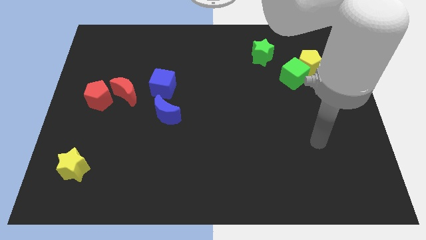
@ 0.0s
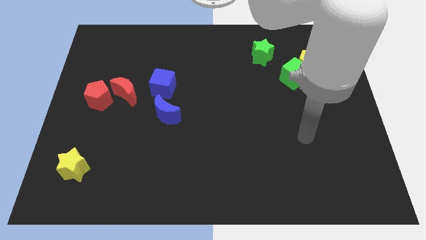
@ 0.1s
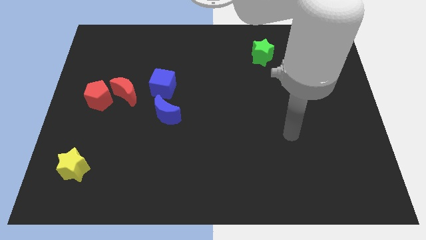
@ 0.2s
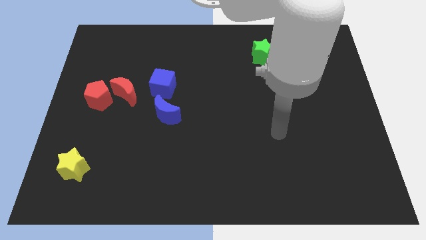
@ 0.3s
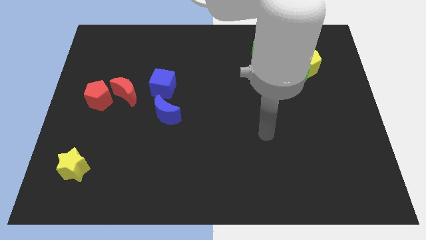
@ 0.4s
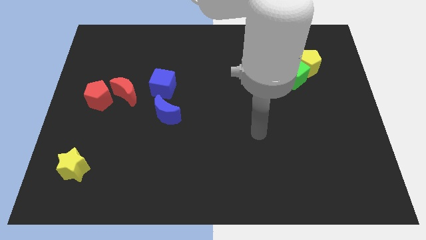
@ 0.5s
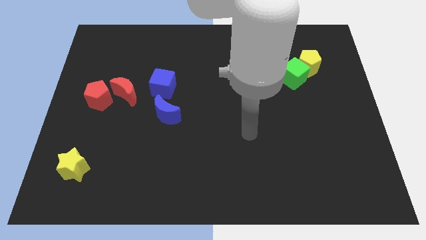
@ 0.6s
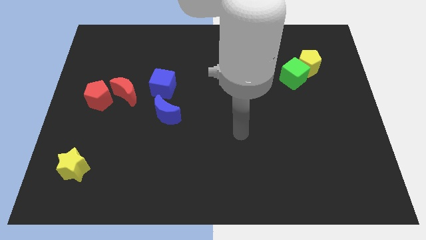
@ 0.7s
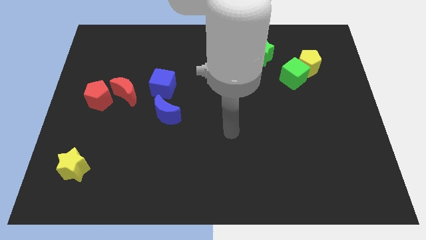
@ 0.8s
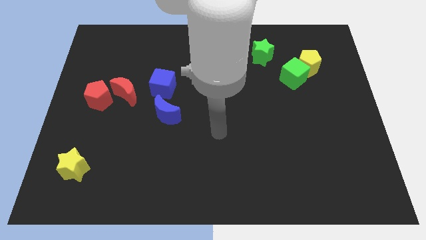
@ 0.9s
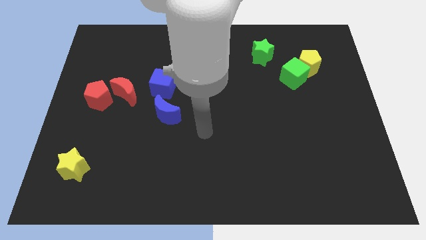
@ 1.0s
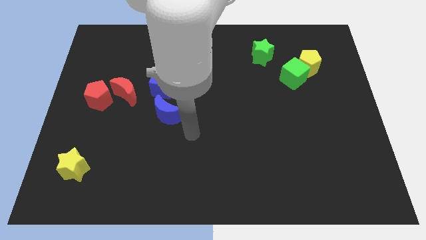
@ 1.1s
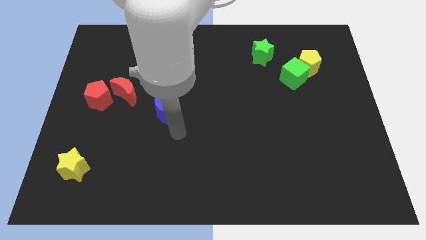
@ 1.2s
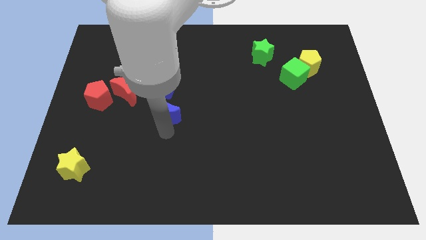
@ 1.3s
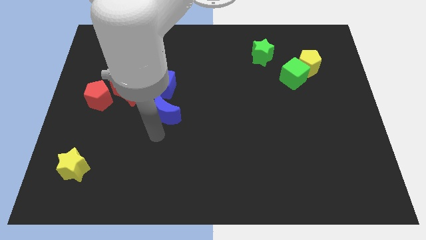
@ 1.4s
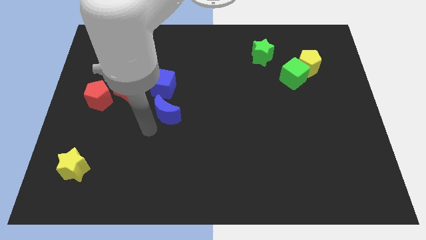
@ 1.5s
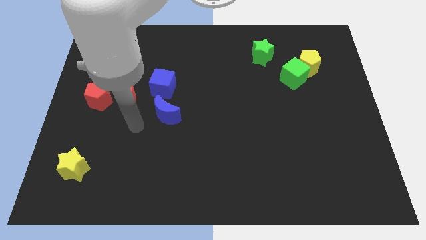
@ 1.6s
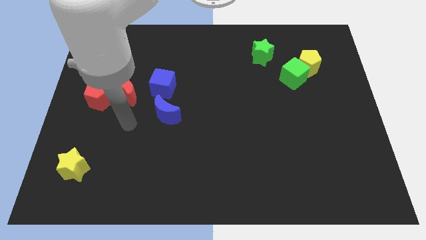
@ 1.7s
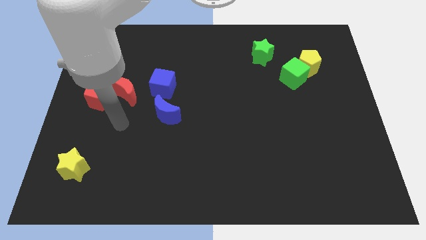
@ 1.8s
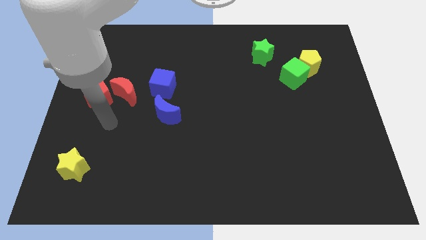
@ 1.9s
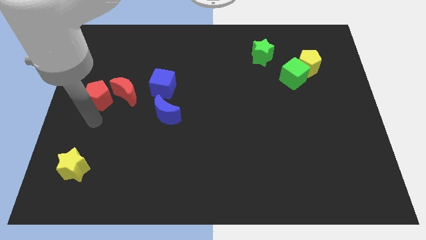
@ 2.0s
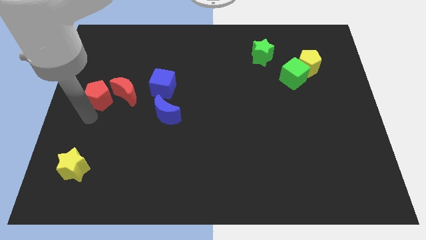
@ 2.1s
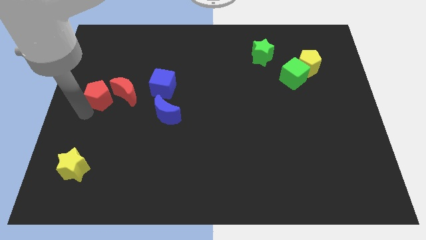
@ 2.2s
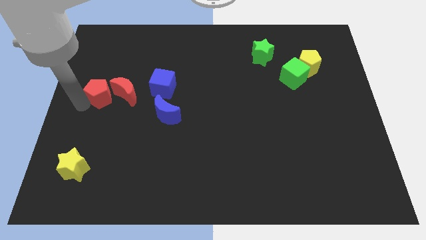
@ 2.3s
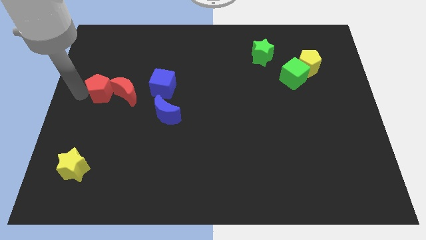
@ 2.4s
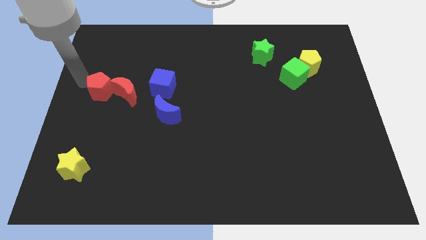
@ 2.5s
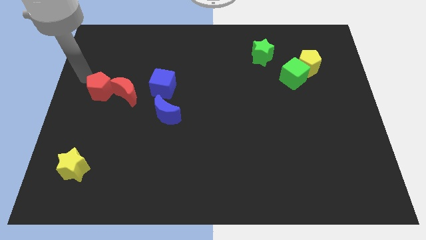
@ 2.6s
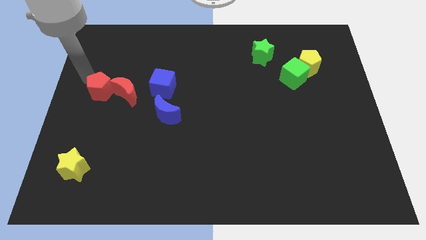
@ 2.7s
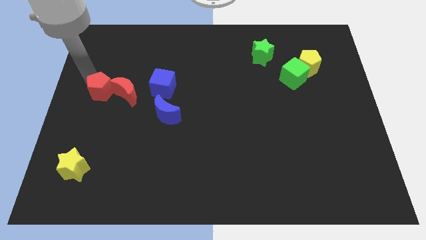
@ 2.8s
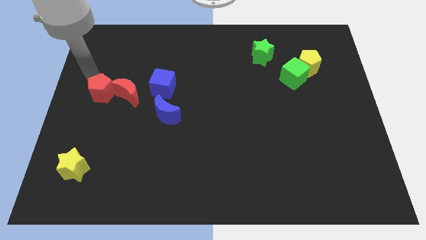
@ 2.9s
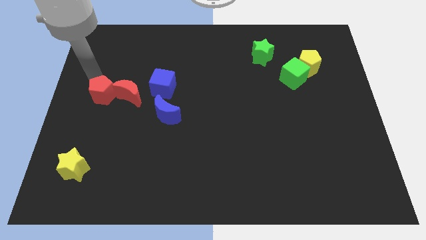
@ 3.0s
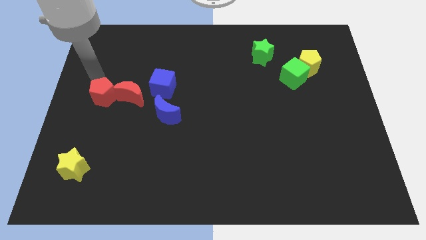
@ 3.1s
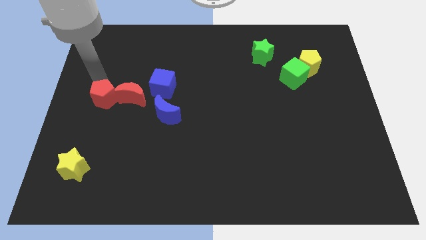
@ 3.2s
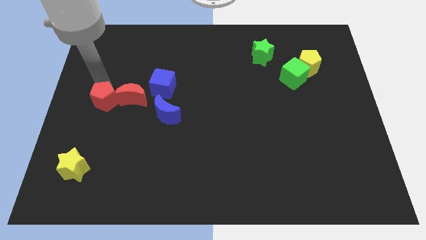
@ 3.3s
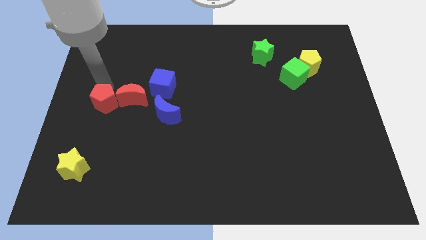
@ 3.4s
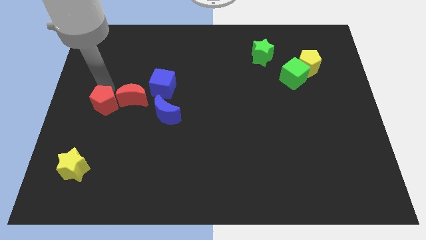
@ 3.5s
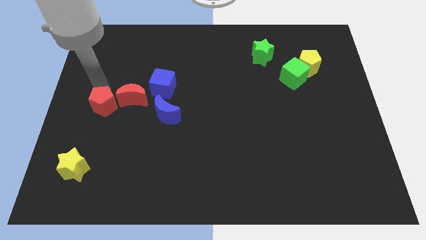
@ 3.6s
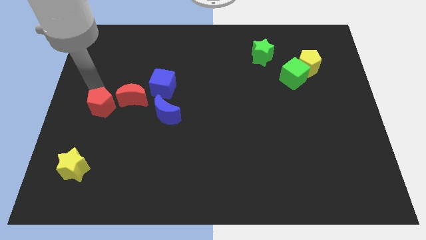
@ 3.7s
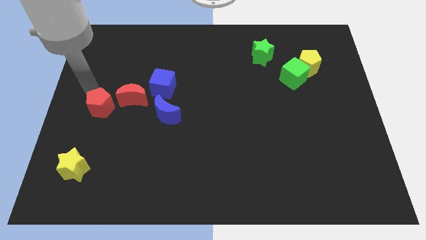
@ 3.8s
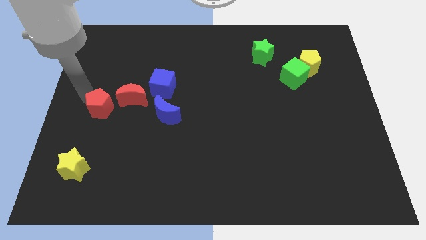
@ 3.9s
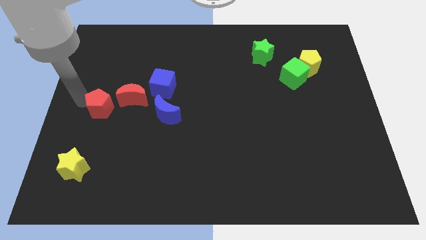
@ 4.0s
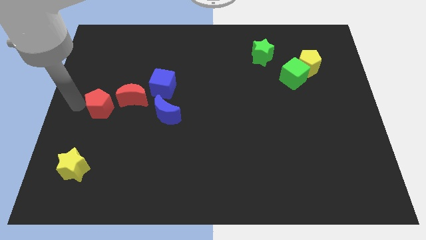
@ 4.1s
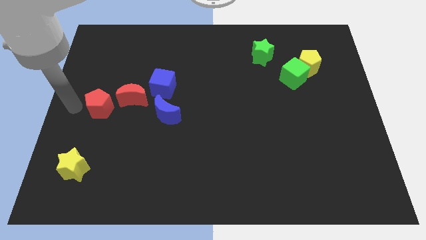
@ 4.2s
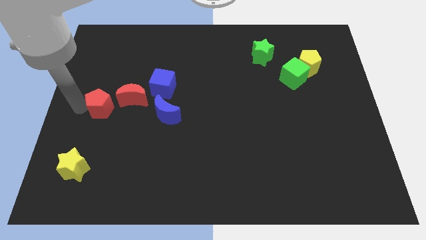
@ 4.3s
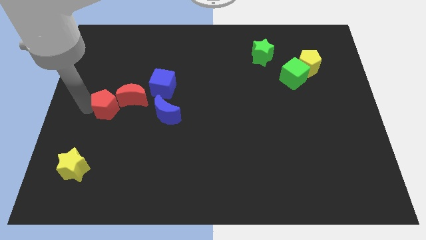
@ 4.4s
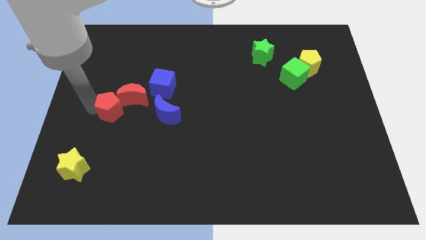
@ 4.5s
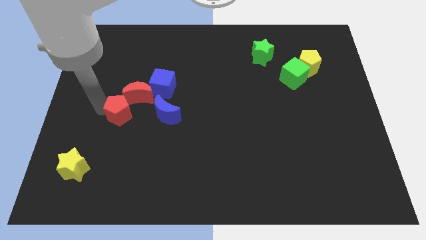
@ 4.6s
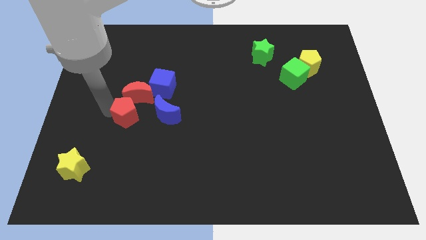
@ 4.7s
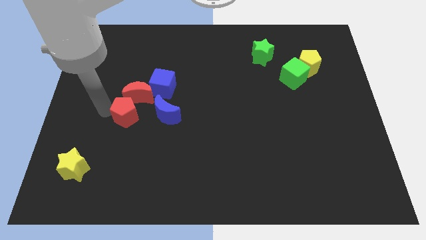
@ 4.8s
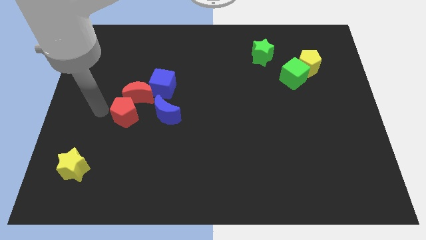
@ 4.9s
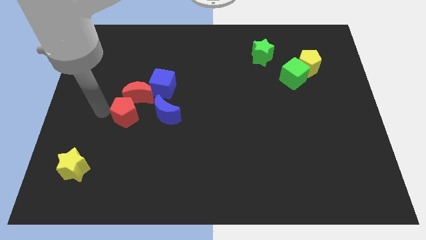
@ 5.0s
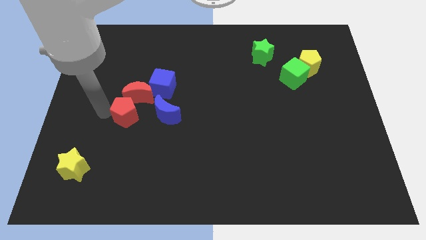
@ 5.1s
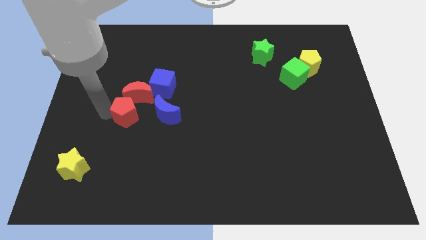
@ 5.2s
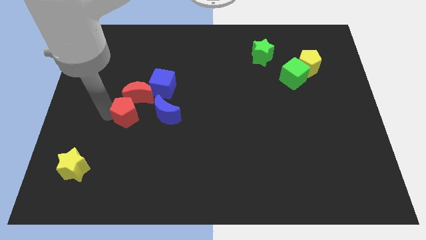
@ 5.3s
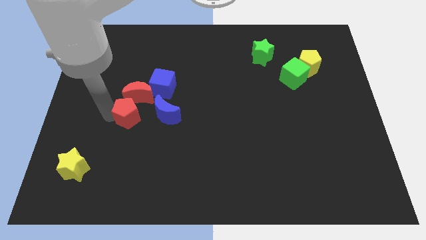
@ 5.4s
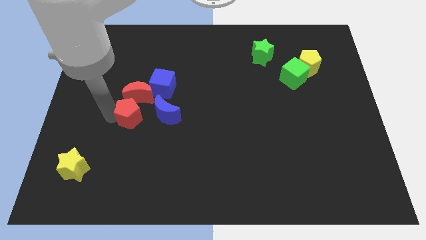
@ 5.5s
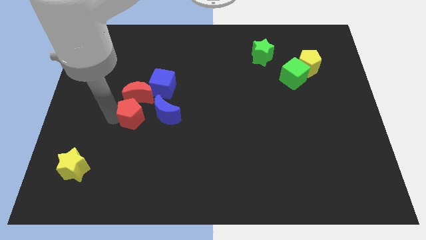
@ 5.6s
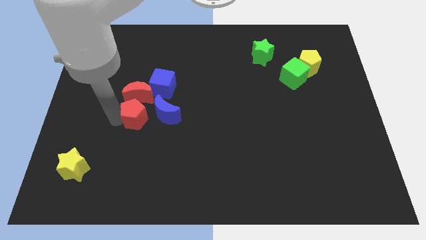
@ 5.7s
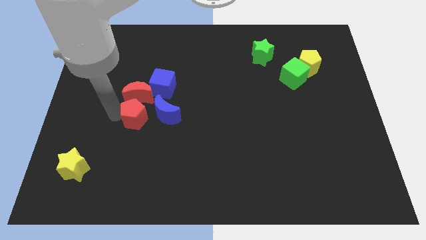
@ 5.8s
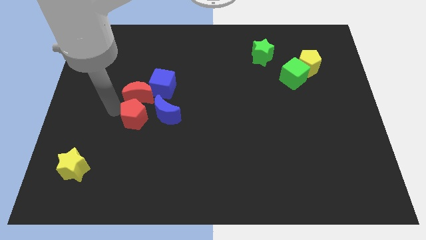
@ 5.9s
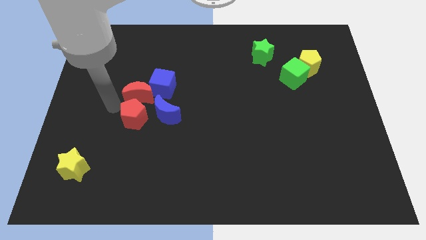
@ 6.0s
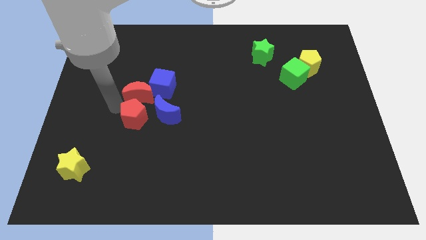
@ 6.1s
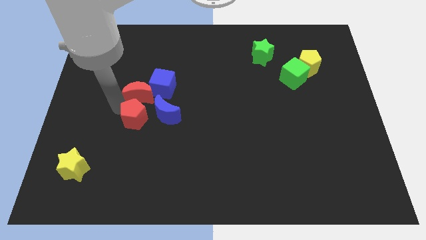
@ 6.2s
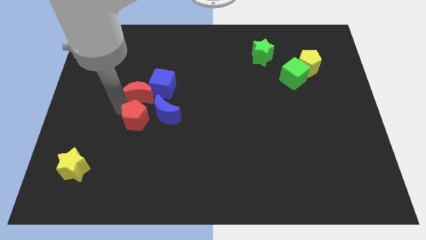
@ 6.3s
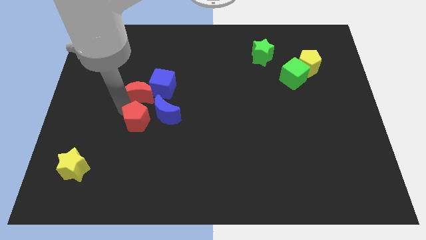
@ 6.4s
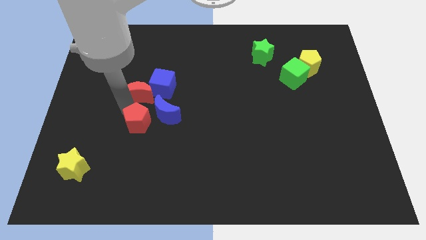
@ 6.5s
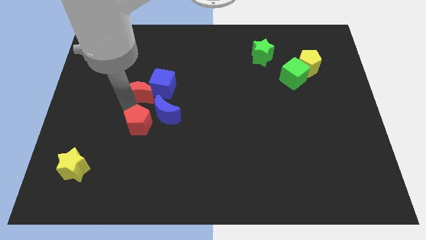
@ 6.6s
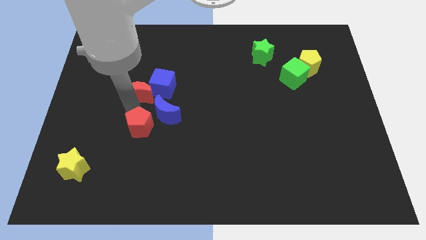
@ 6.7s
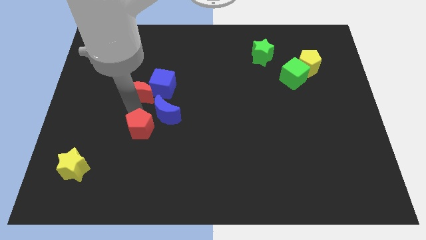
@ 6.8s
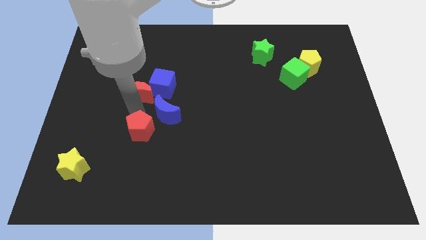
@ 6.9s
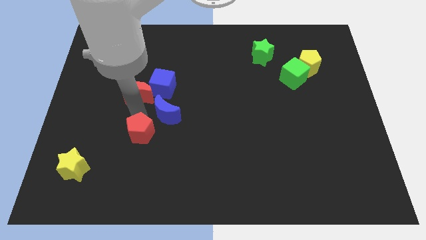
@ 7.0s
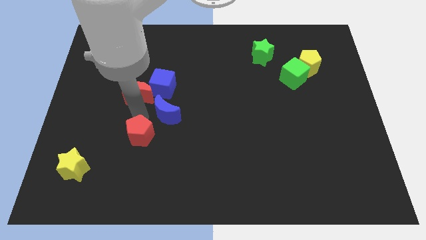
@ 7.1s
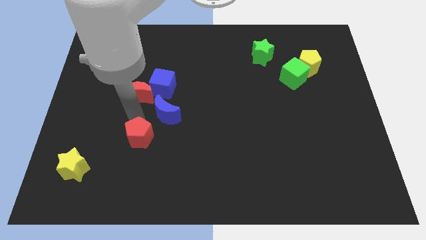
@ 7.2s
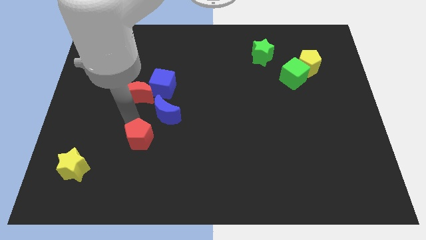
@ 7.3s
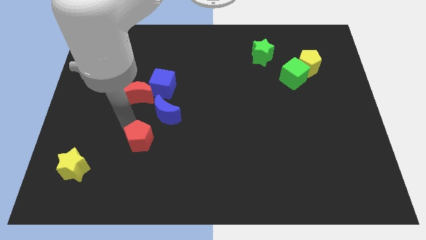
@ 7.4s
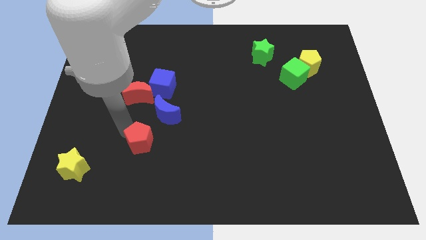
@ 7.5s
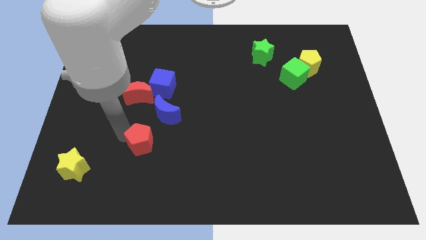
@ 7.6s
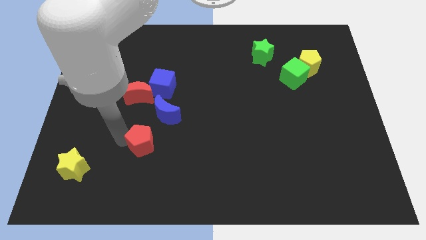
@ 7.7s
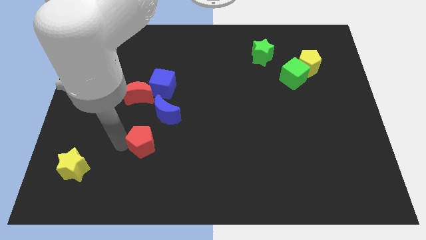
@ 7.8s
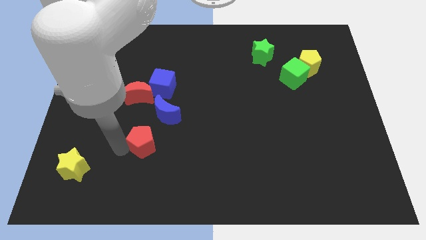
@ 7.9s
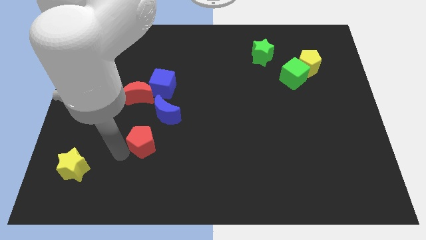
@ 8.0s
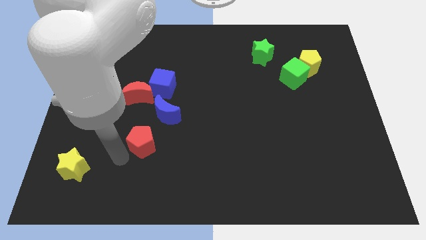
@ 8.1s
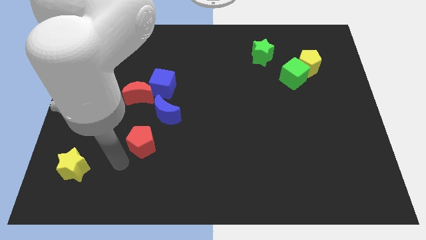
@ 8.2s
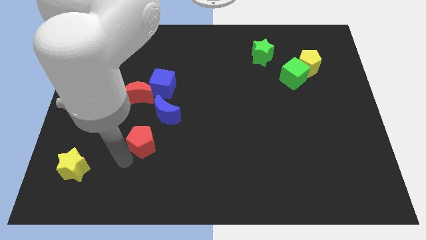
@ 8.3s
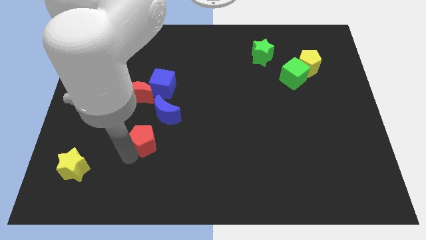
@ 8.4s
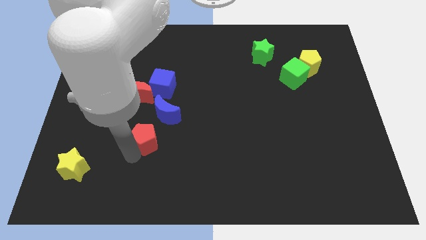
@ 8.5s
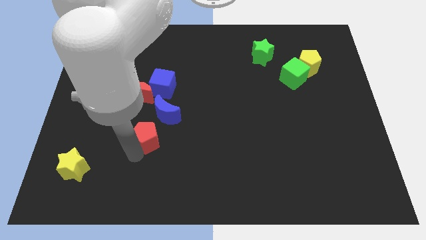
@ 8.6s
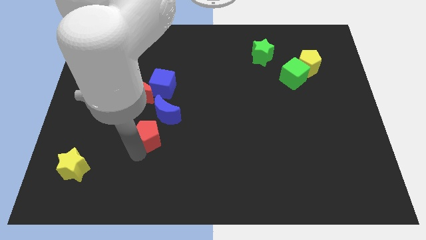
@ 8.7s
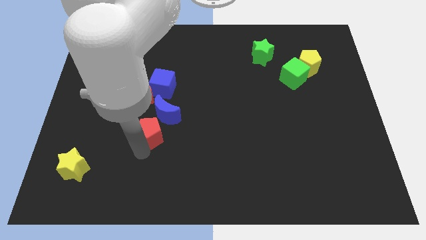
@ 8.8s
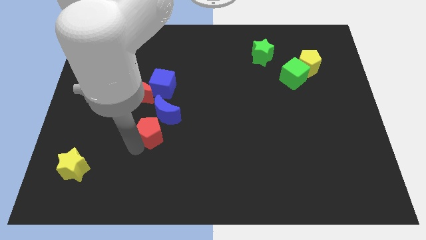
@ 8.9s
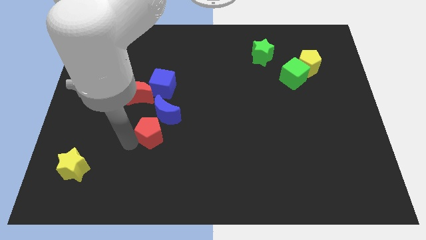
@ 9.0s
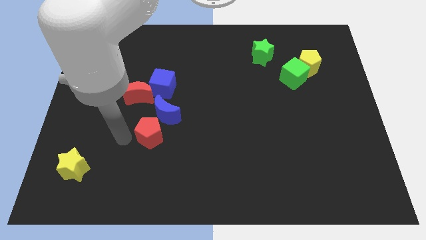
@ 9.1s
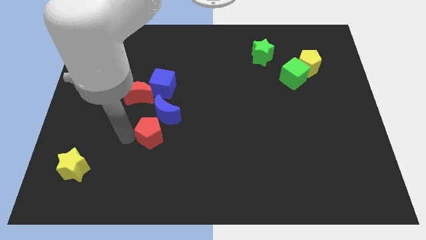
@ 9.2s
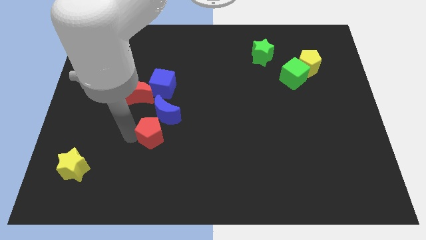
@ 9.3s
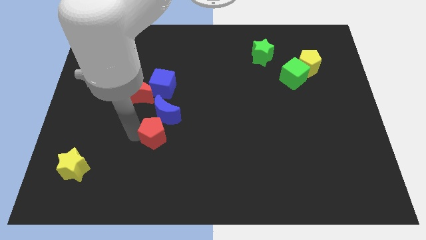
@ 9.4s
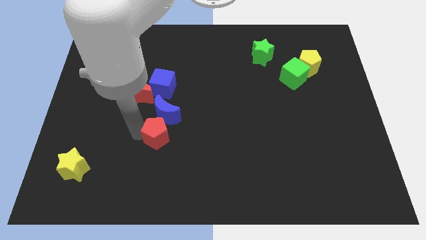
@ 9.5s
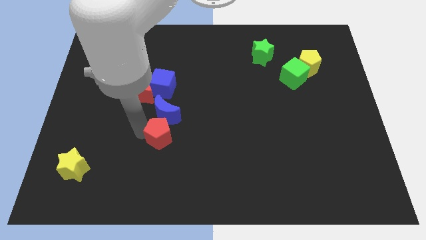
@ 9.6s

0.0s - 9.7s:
push the red pentagon to the bottom right side of the blue moon
